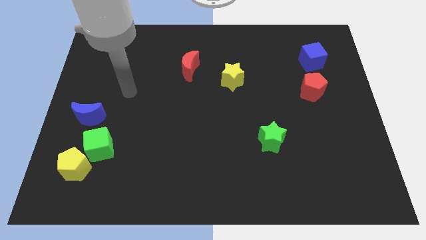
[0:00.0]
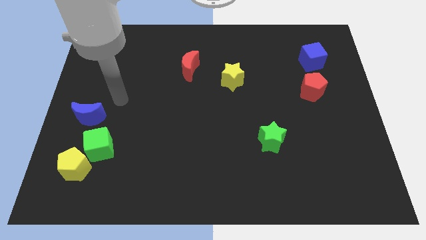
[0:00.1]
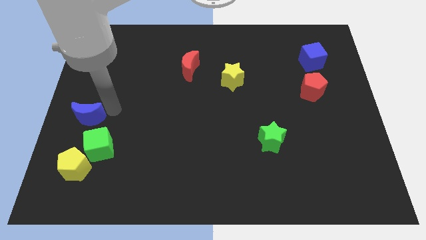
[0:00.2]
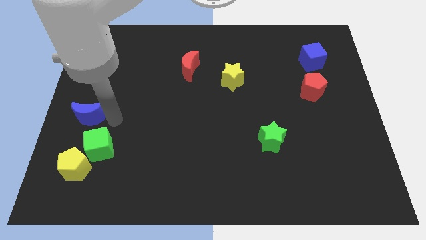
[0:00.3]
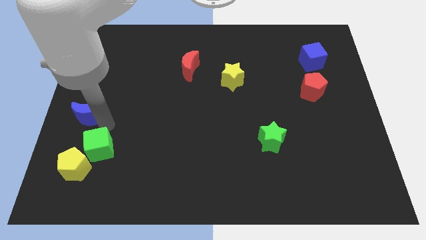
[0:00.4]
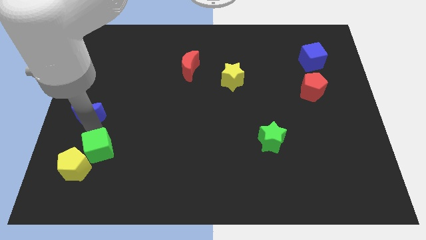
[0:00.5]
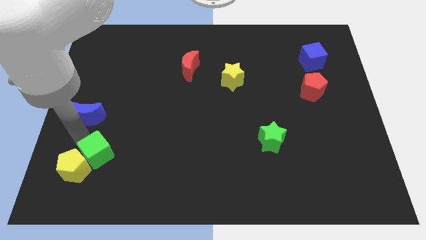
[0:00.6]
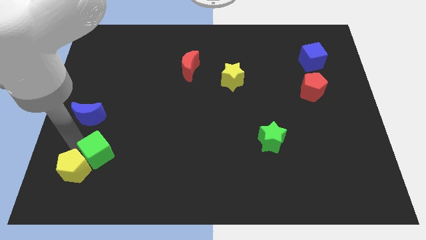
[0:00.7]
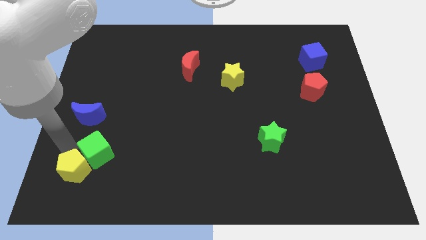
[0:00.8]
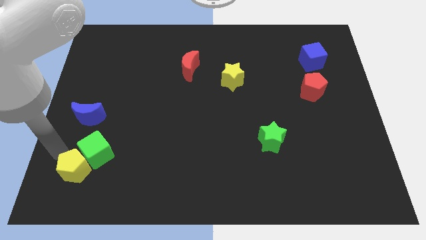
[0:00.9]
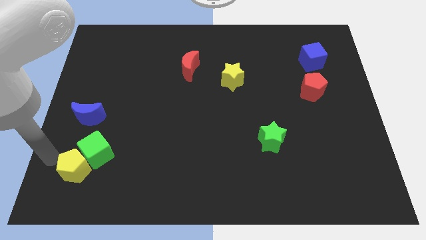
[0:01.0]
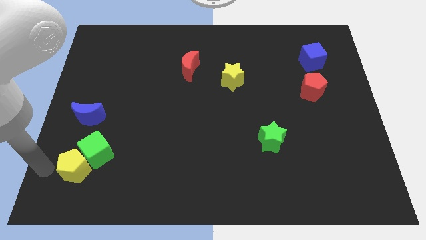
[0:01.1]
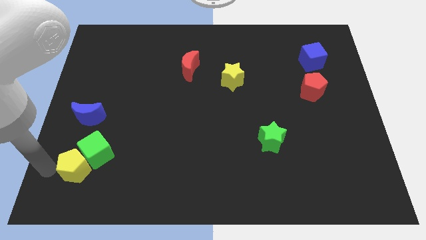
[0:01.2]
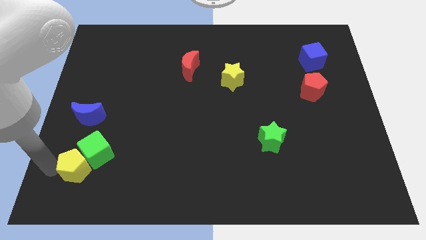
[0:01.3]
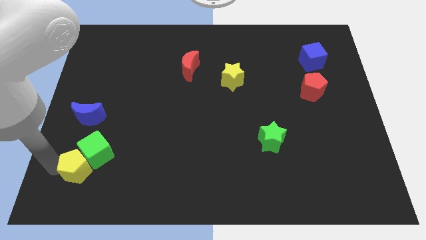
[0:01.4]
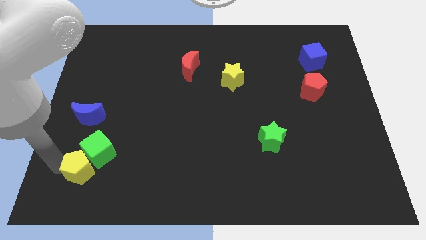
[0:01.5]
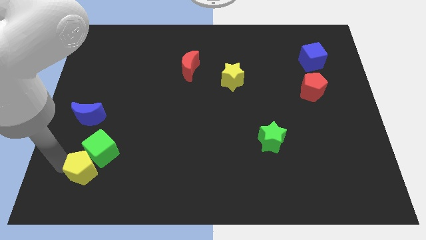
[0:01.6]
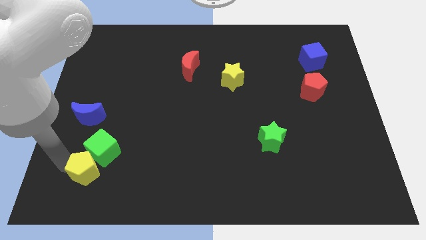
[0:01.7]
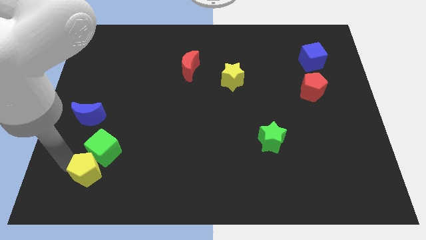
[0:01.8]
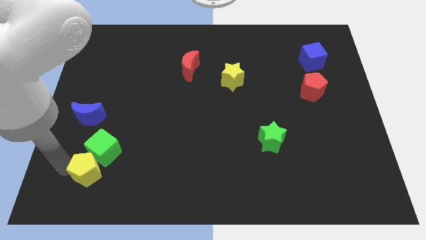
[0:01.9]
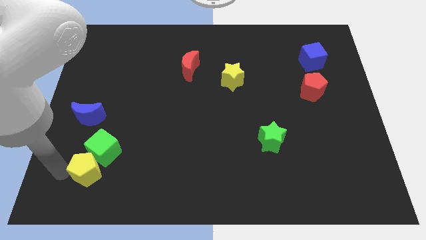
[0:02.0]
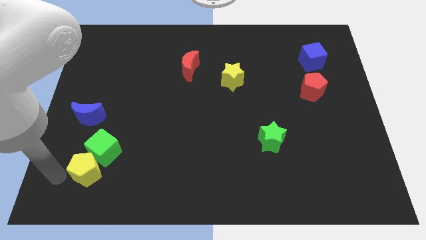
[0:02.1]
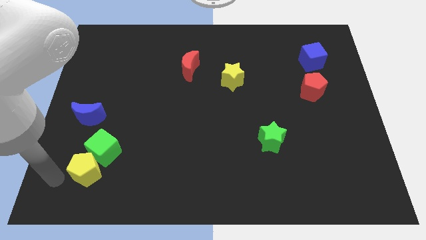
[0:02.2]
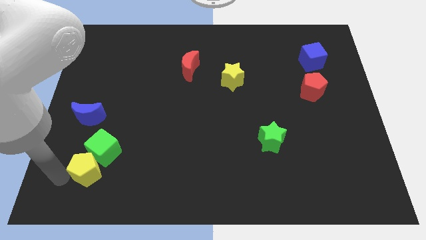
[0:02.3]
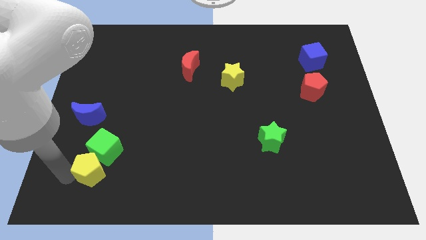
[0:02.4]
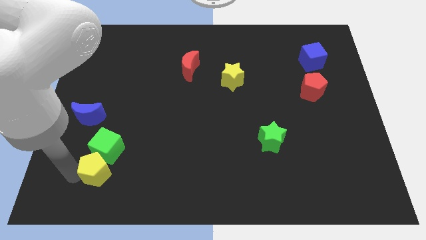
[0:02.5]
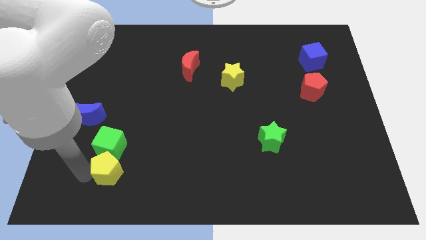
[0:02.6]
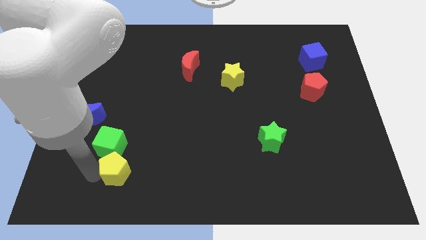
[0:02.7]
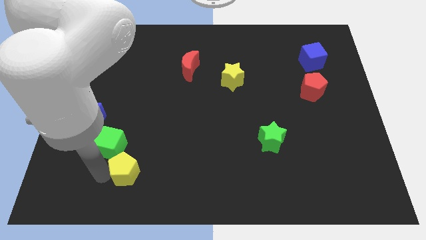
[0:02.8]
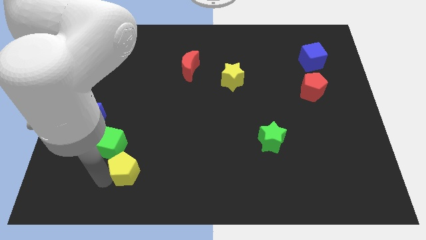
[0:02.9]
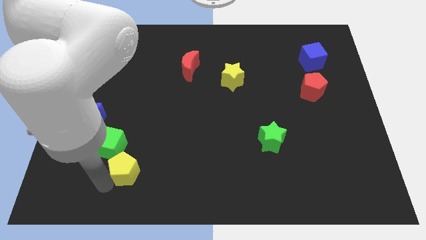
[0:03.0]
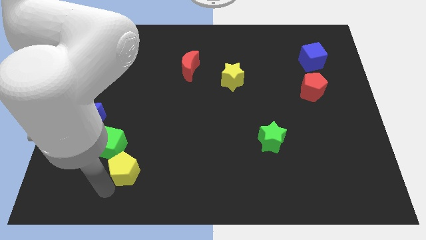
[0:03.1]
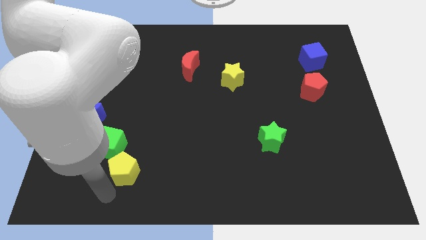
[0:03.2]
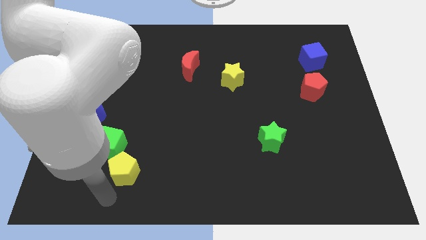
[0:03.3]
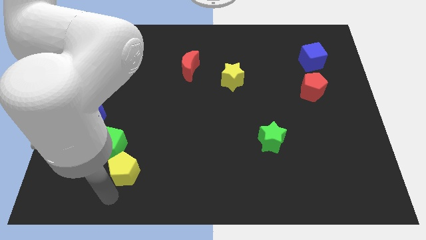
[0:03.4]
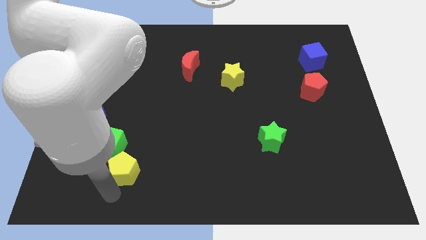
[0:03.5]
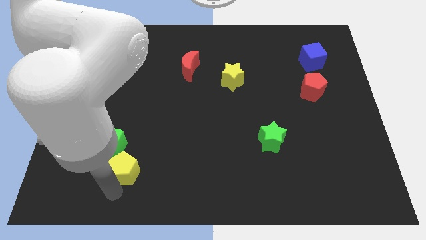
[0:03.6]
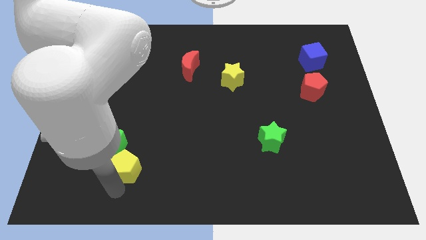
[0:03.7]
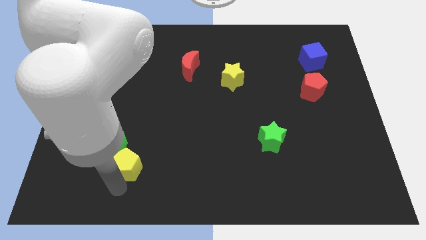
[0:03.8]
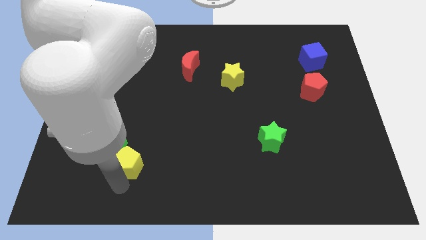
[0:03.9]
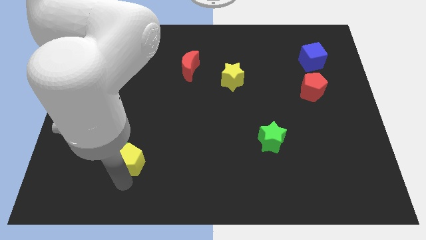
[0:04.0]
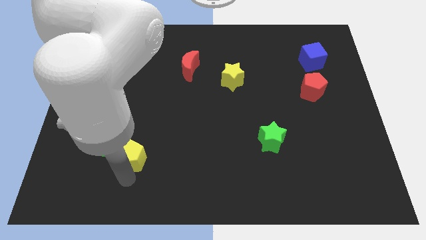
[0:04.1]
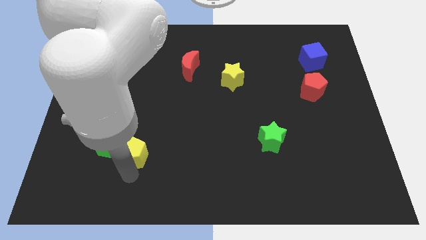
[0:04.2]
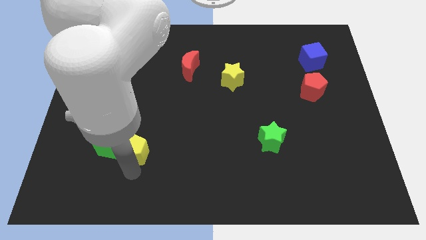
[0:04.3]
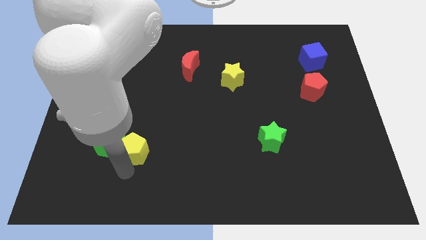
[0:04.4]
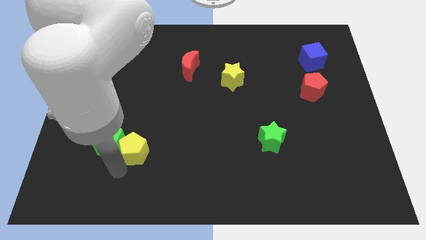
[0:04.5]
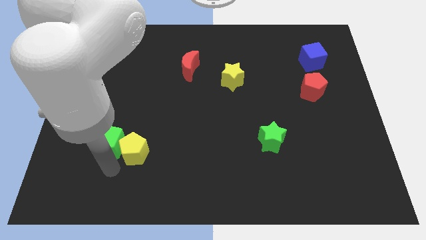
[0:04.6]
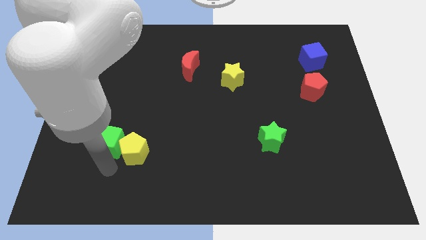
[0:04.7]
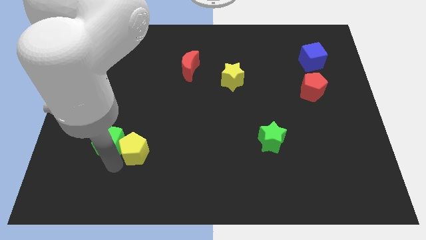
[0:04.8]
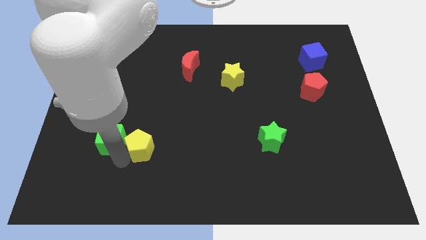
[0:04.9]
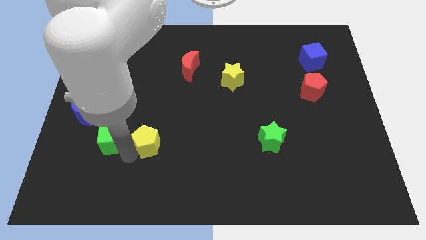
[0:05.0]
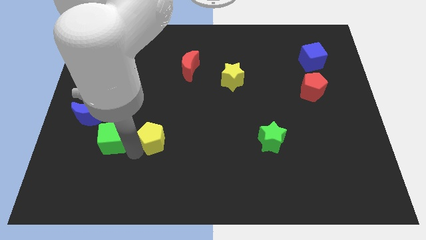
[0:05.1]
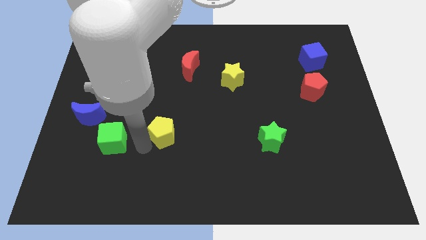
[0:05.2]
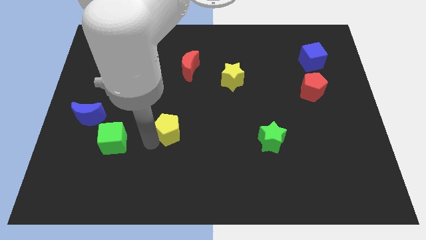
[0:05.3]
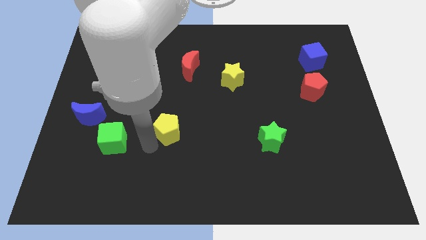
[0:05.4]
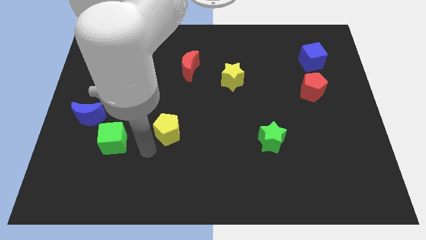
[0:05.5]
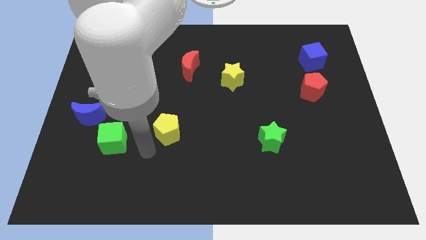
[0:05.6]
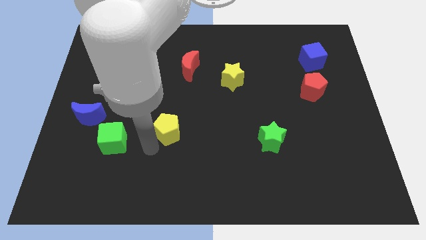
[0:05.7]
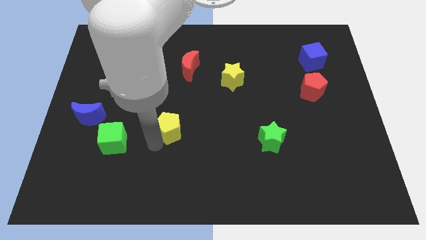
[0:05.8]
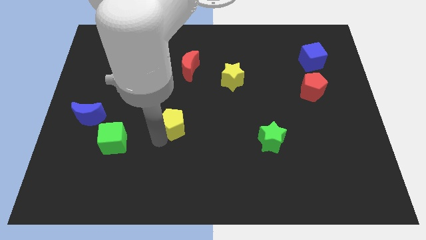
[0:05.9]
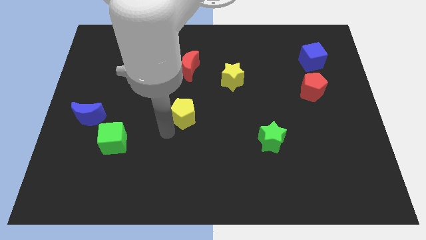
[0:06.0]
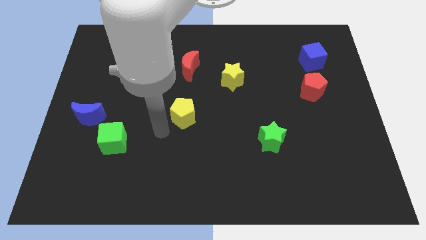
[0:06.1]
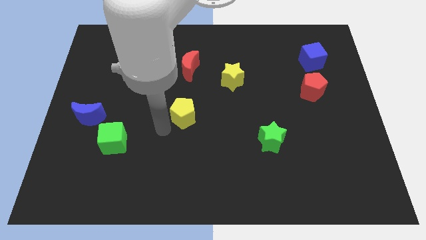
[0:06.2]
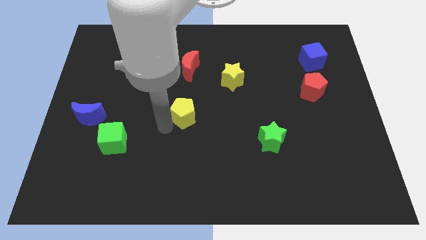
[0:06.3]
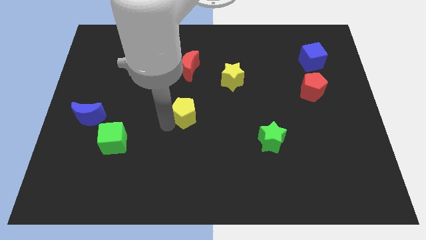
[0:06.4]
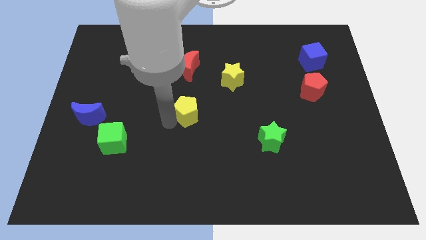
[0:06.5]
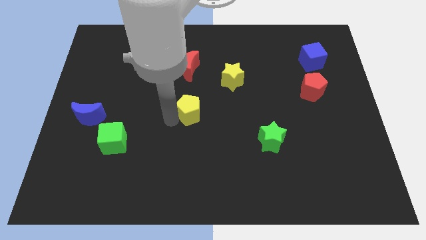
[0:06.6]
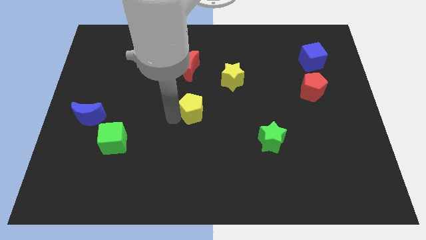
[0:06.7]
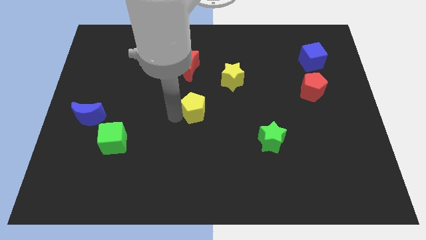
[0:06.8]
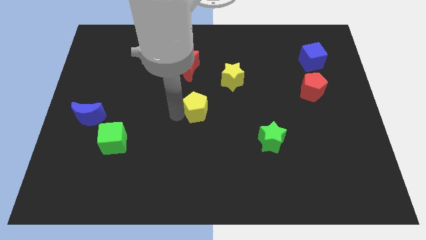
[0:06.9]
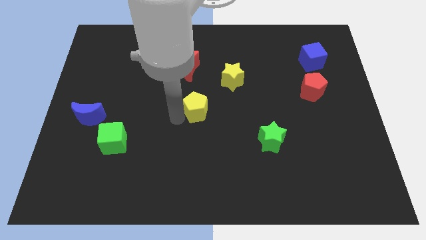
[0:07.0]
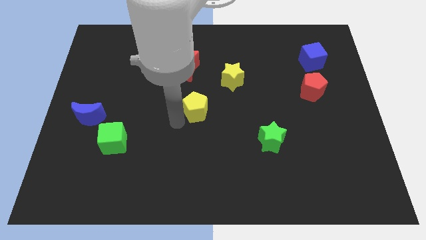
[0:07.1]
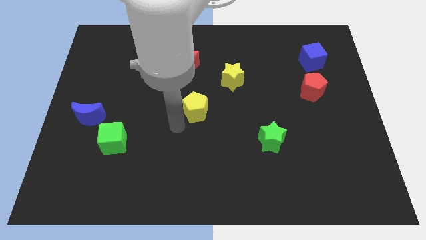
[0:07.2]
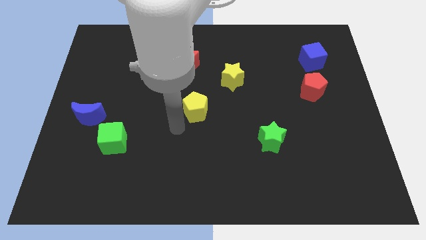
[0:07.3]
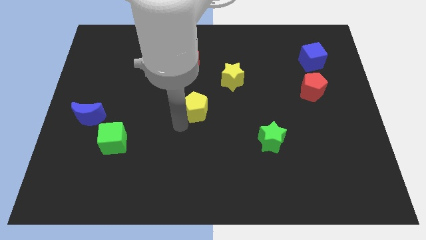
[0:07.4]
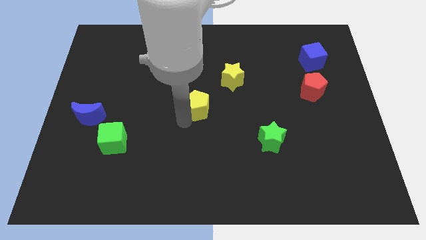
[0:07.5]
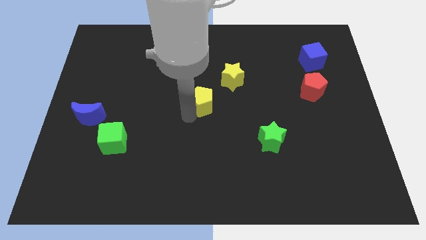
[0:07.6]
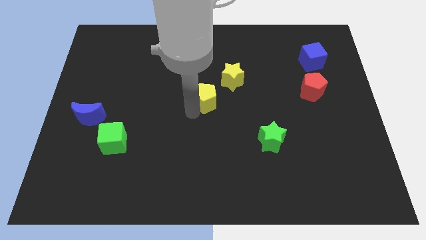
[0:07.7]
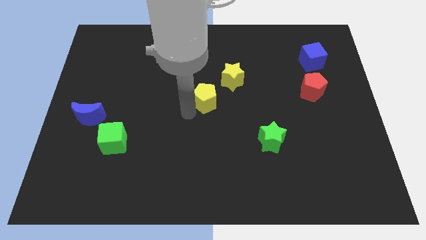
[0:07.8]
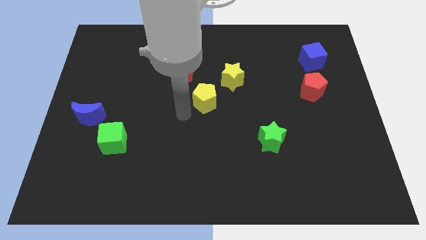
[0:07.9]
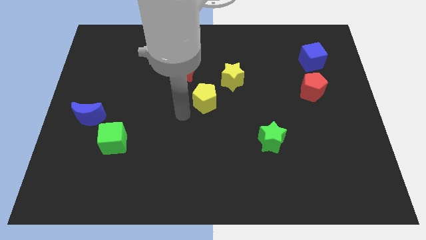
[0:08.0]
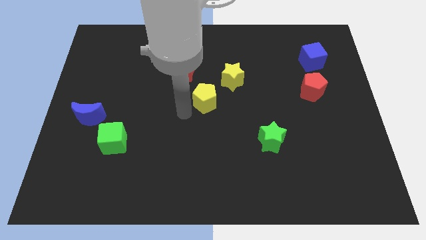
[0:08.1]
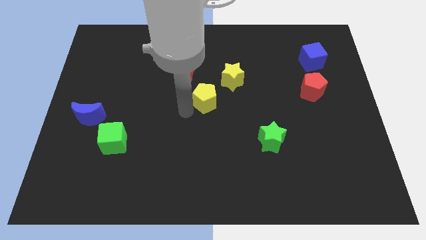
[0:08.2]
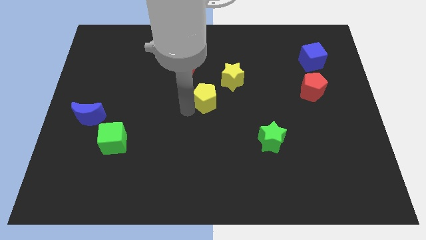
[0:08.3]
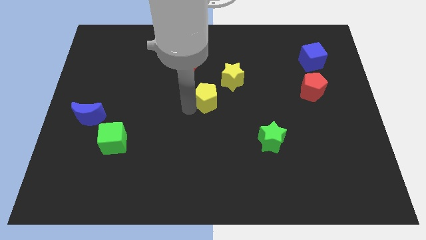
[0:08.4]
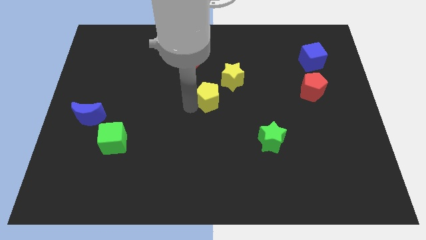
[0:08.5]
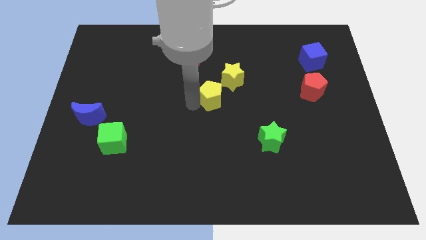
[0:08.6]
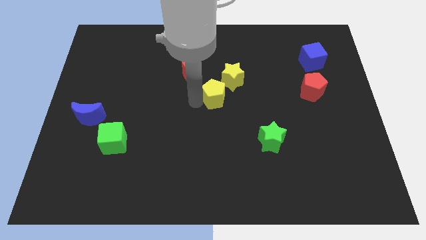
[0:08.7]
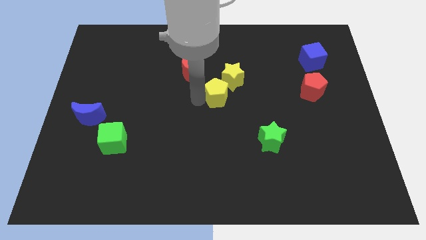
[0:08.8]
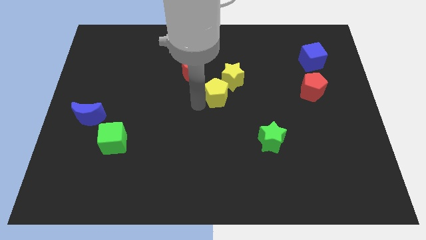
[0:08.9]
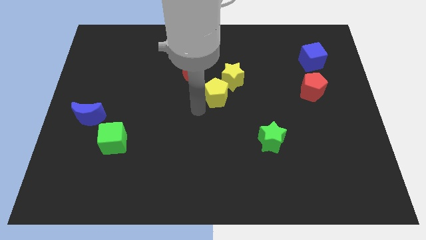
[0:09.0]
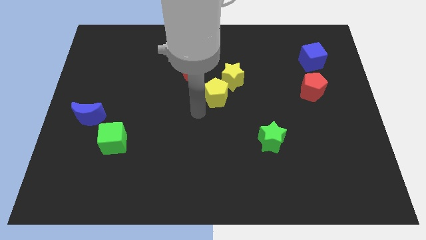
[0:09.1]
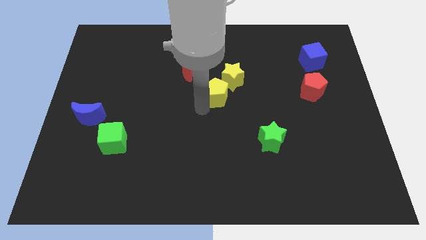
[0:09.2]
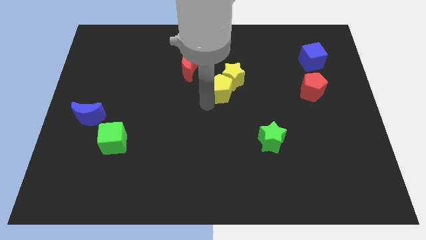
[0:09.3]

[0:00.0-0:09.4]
push the yellow pentagon close to the yellow star
